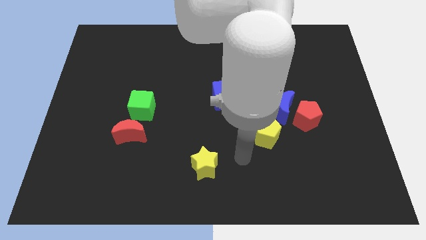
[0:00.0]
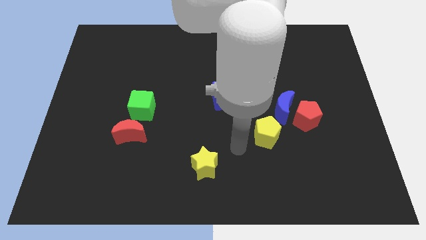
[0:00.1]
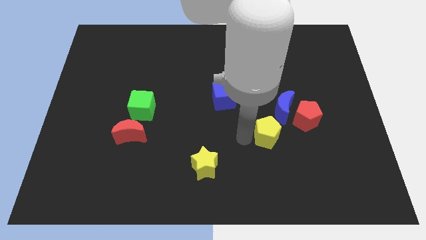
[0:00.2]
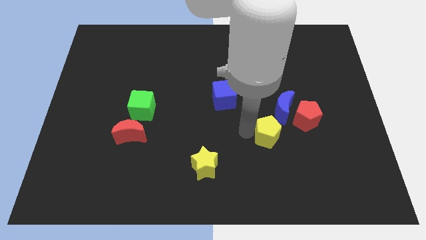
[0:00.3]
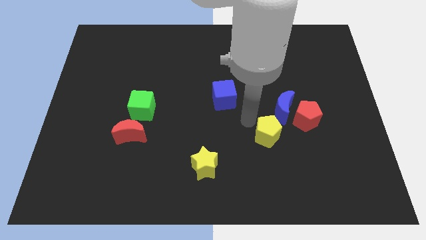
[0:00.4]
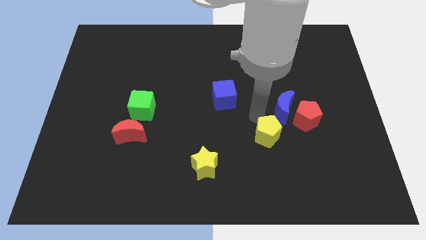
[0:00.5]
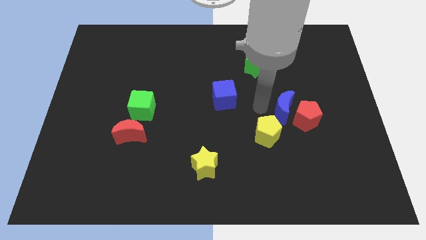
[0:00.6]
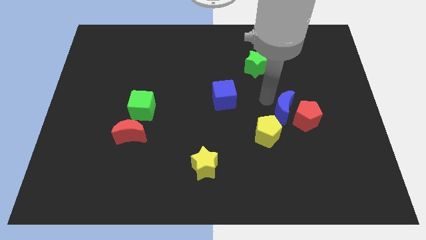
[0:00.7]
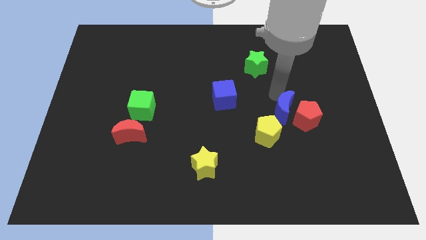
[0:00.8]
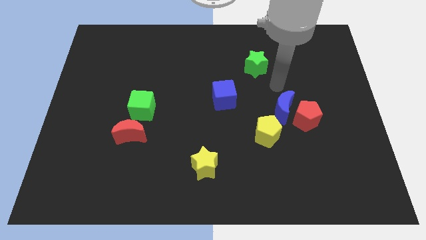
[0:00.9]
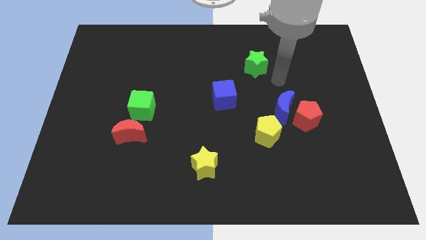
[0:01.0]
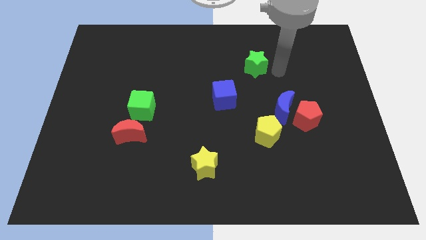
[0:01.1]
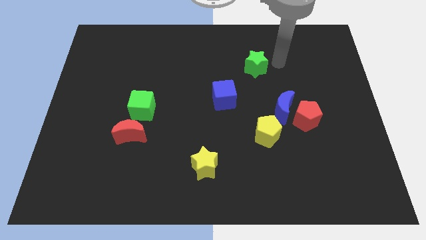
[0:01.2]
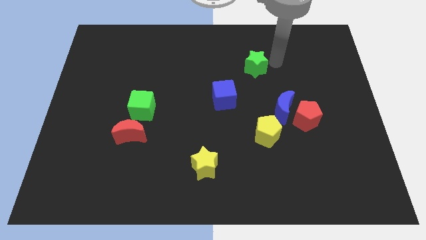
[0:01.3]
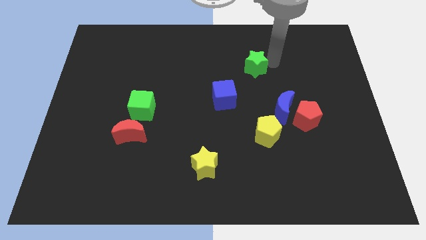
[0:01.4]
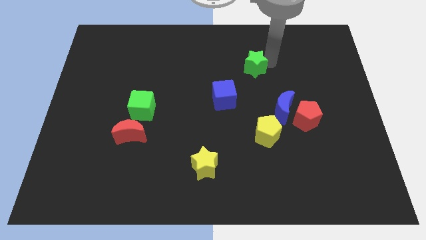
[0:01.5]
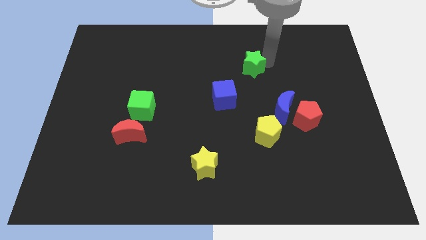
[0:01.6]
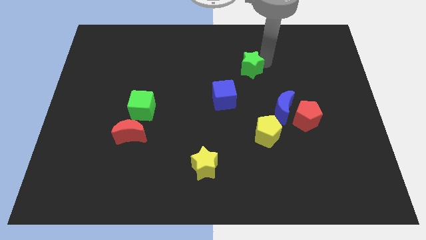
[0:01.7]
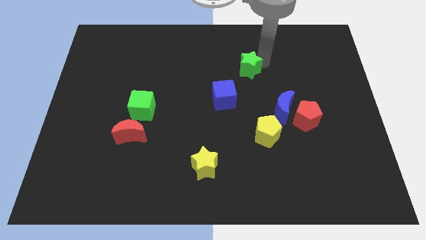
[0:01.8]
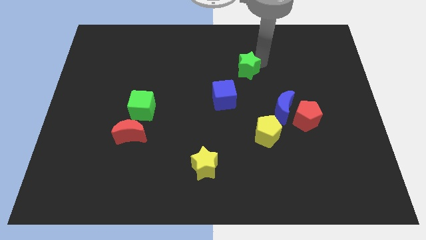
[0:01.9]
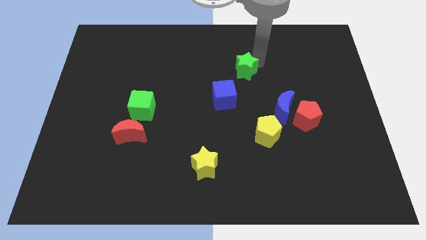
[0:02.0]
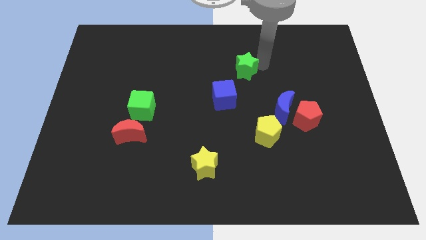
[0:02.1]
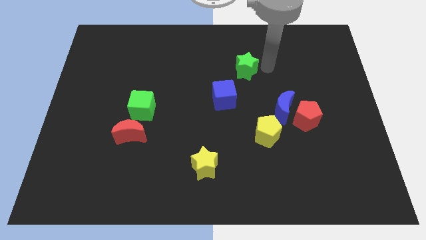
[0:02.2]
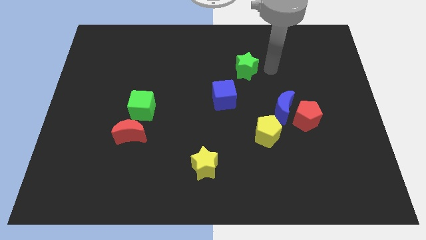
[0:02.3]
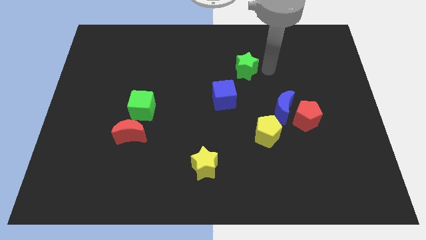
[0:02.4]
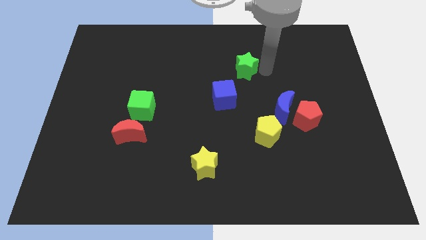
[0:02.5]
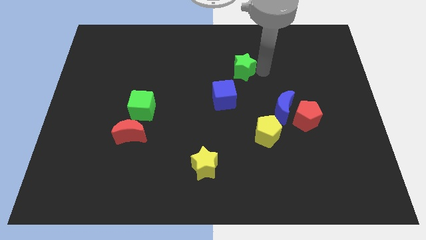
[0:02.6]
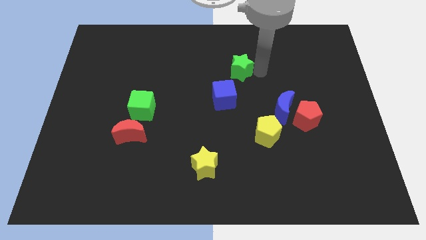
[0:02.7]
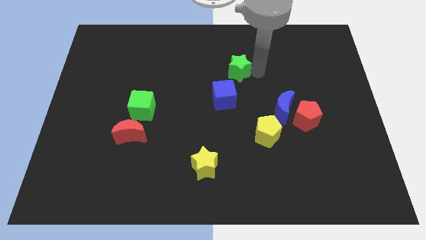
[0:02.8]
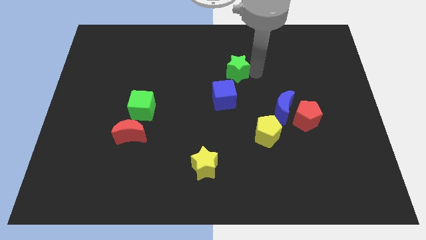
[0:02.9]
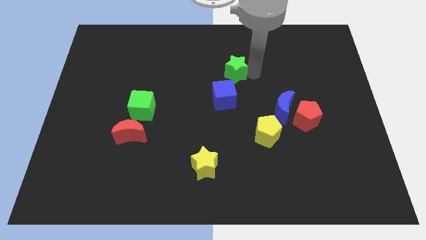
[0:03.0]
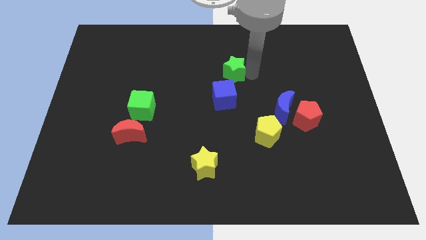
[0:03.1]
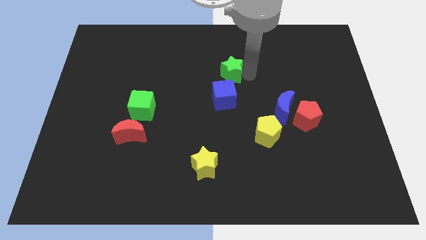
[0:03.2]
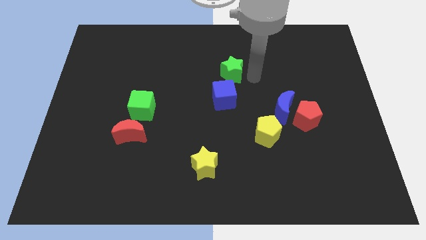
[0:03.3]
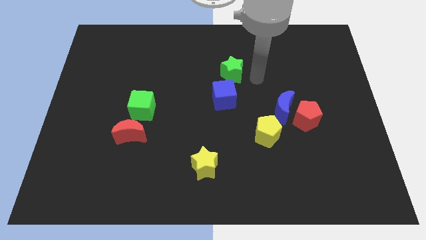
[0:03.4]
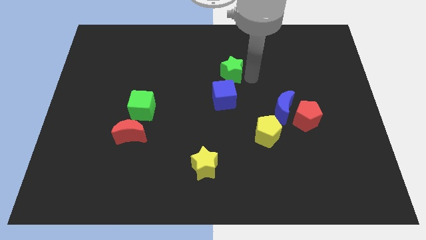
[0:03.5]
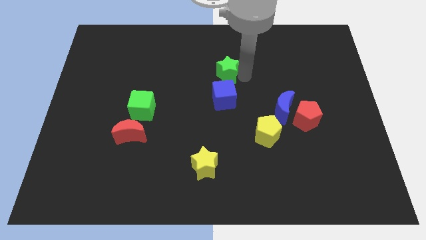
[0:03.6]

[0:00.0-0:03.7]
slightly move the green star left

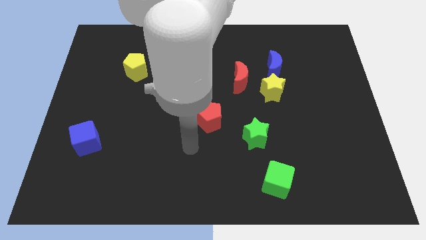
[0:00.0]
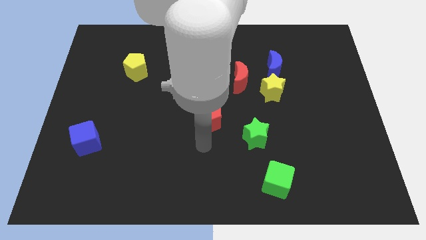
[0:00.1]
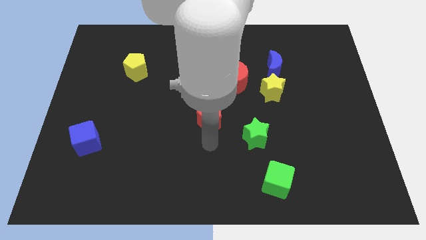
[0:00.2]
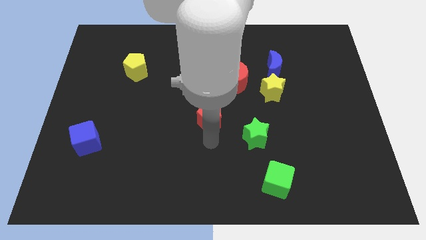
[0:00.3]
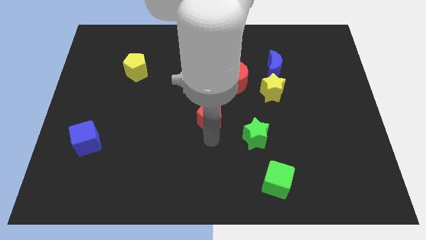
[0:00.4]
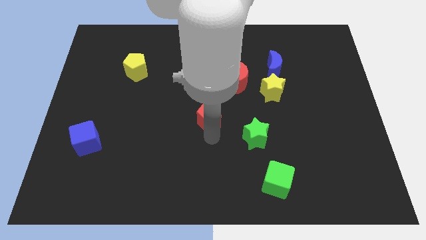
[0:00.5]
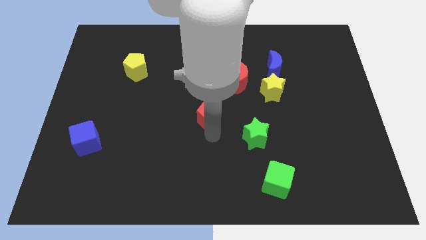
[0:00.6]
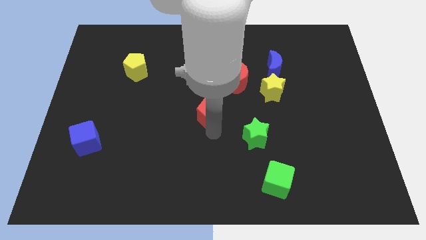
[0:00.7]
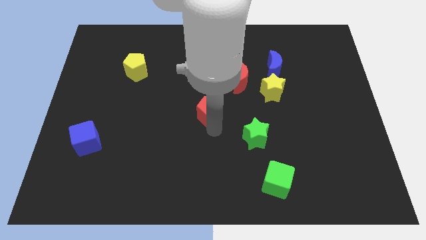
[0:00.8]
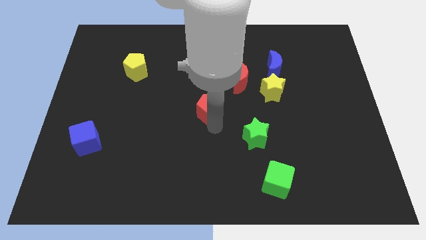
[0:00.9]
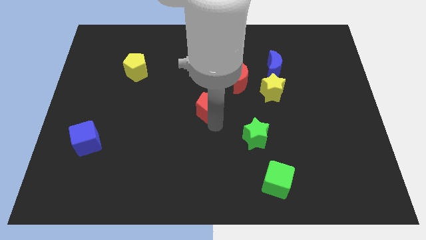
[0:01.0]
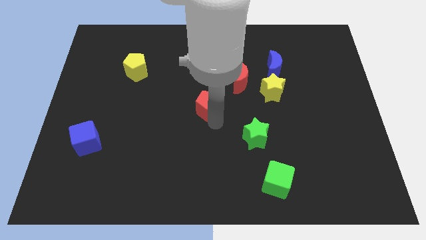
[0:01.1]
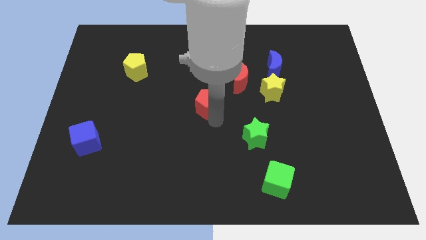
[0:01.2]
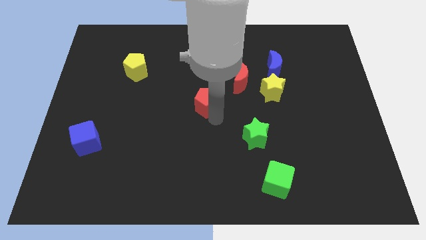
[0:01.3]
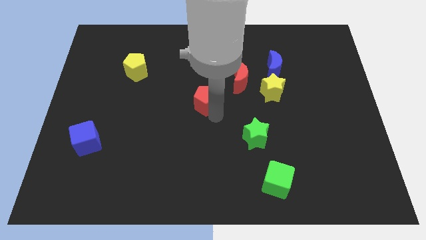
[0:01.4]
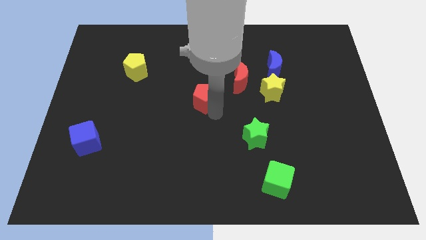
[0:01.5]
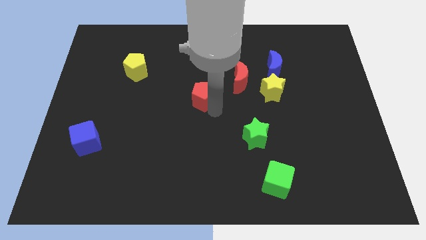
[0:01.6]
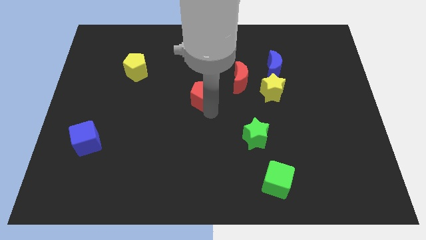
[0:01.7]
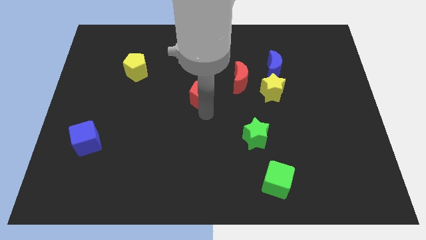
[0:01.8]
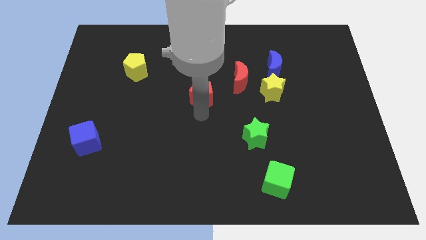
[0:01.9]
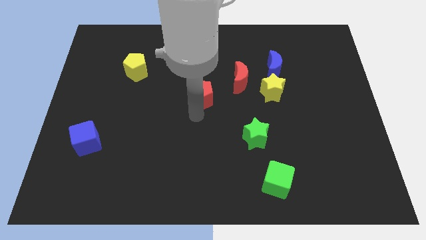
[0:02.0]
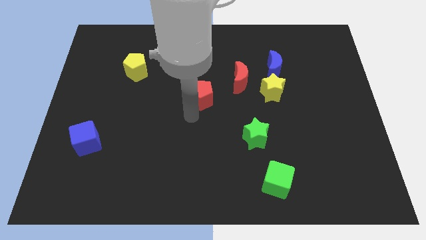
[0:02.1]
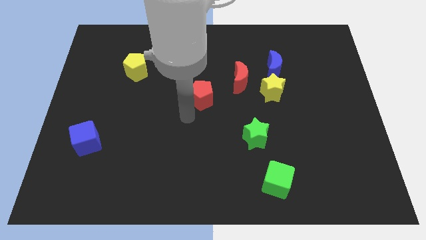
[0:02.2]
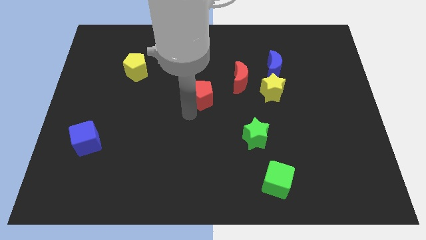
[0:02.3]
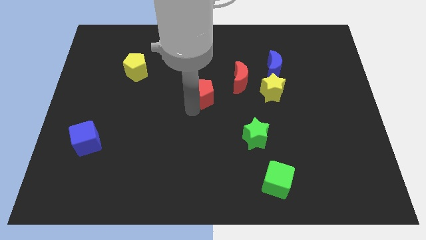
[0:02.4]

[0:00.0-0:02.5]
push the red pentagon up slightly

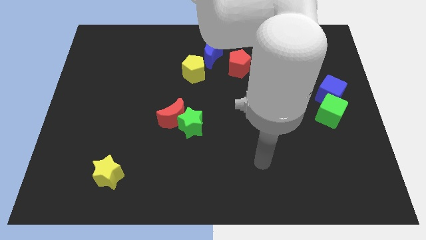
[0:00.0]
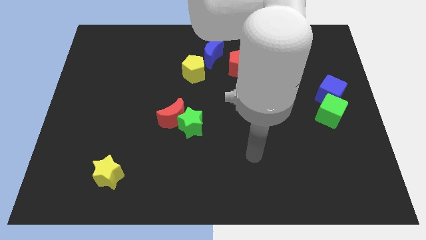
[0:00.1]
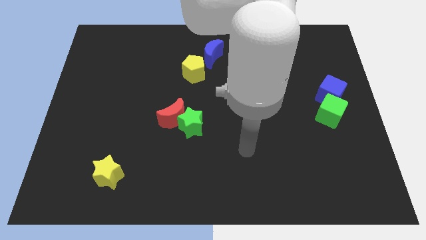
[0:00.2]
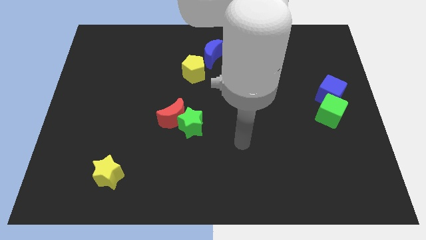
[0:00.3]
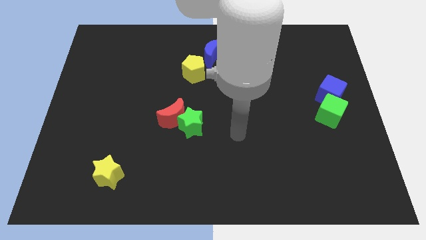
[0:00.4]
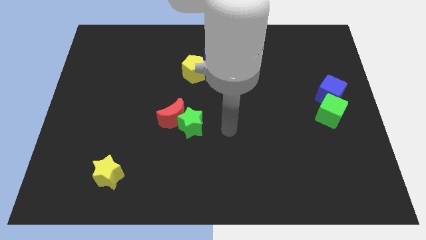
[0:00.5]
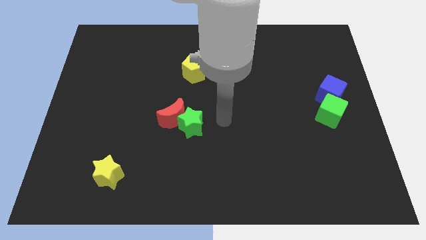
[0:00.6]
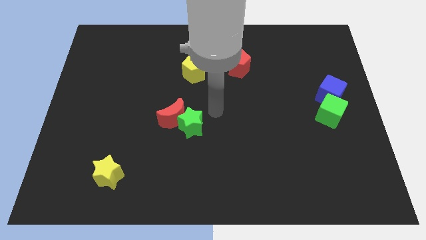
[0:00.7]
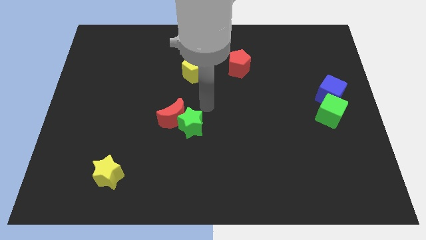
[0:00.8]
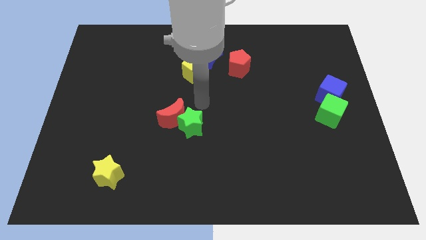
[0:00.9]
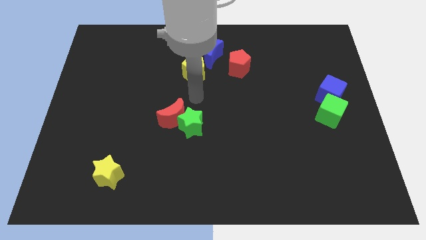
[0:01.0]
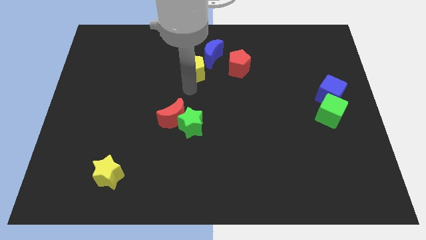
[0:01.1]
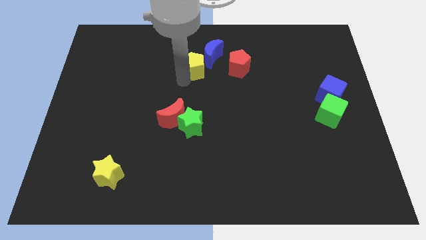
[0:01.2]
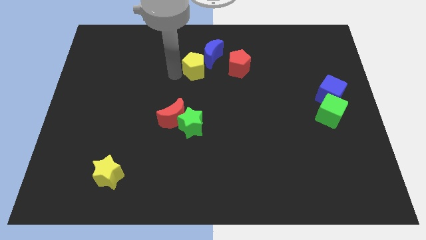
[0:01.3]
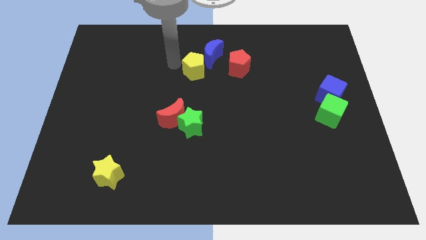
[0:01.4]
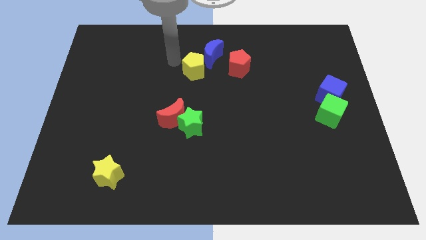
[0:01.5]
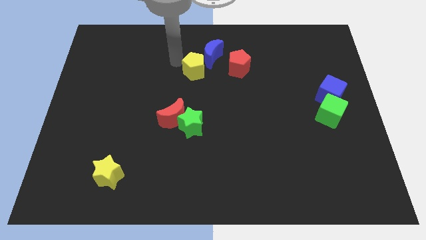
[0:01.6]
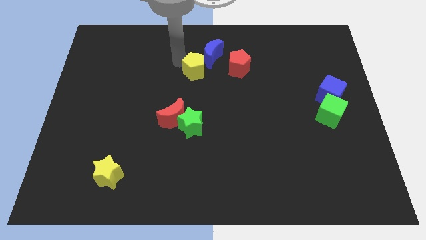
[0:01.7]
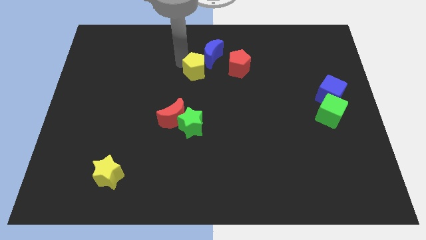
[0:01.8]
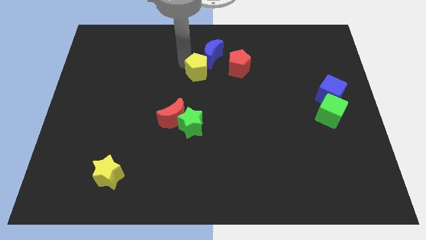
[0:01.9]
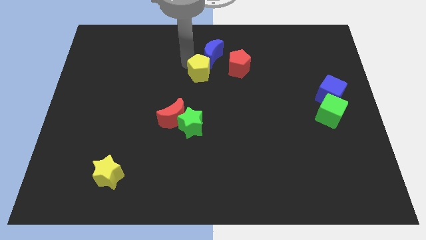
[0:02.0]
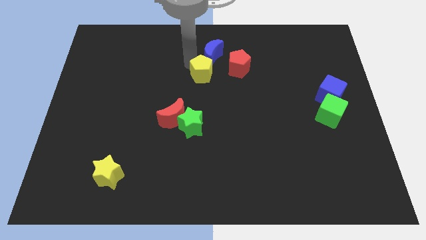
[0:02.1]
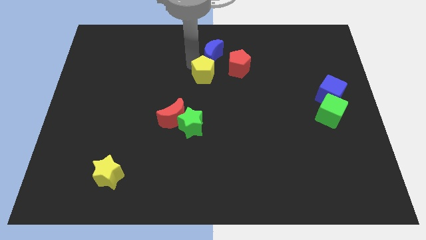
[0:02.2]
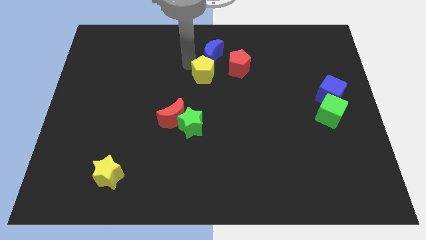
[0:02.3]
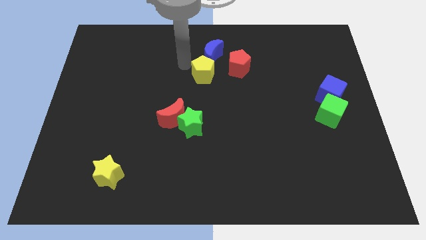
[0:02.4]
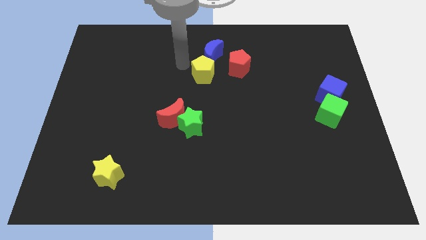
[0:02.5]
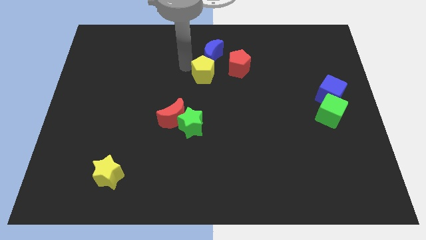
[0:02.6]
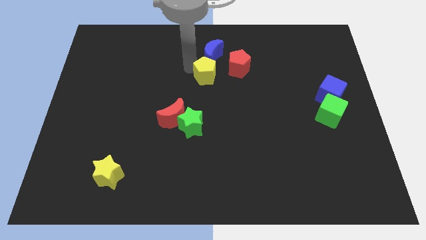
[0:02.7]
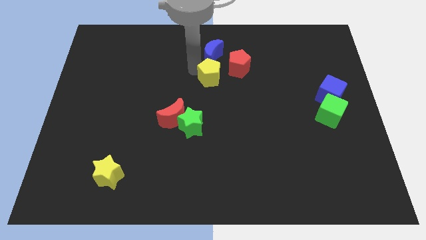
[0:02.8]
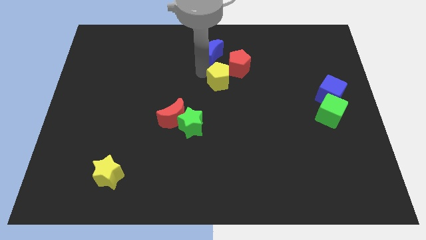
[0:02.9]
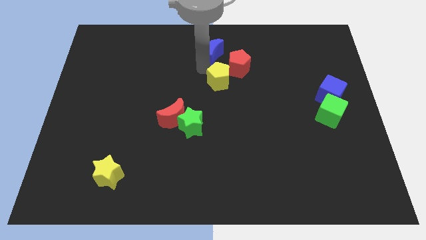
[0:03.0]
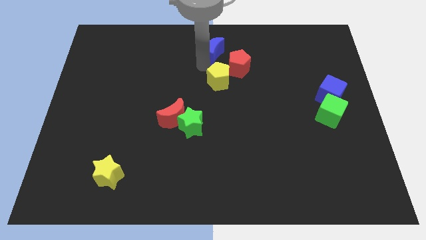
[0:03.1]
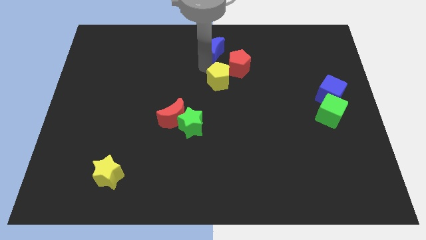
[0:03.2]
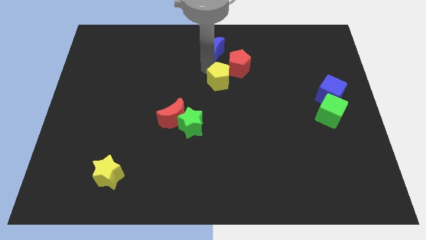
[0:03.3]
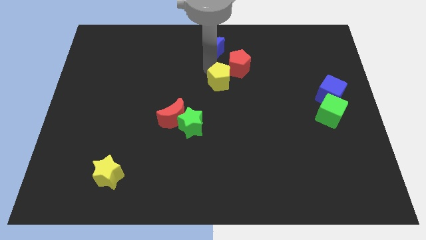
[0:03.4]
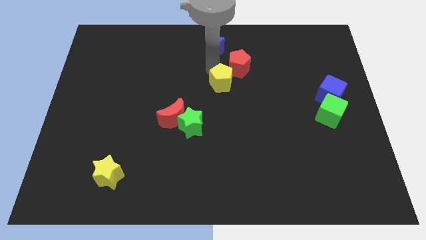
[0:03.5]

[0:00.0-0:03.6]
slightly move the yellow pentagon down and right
